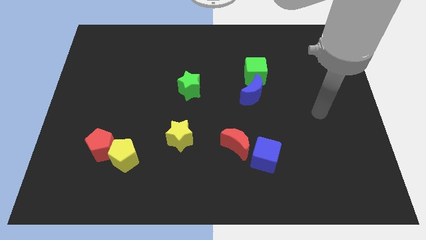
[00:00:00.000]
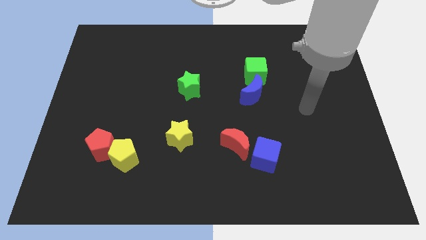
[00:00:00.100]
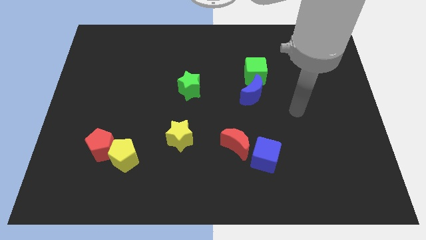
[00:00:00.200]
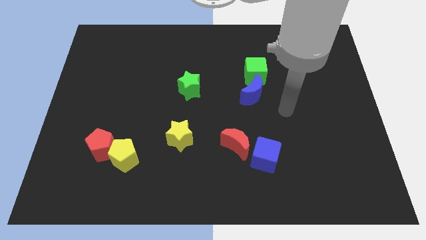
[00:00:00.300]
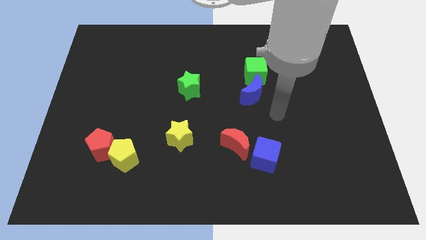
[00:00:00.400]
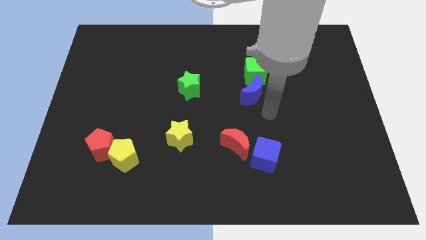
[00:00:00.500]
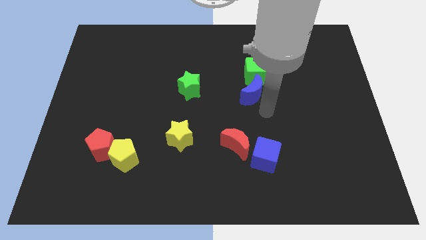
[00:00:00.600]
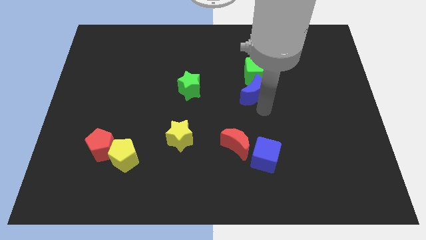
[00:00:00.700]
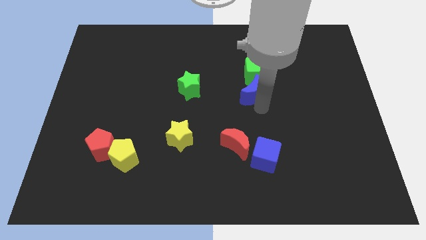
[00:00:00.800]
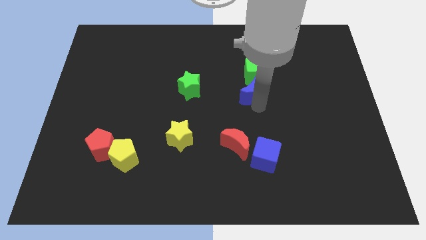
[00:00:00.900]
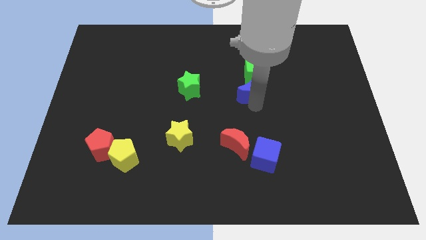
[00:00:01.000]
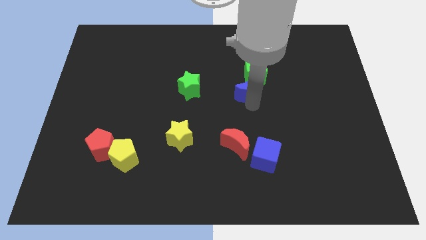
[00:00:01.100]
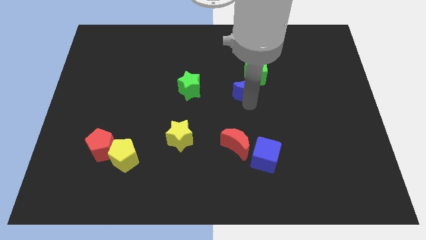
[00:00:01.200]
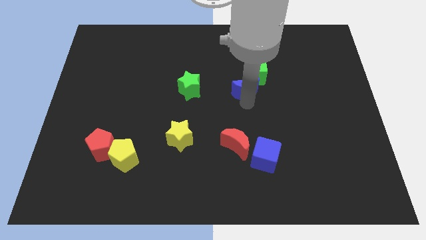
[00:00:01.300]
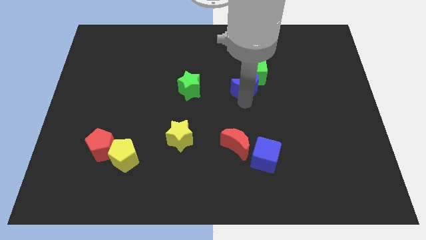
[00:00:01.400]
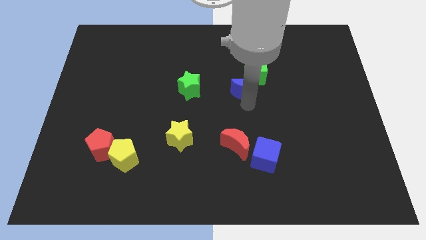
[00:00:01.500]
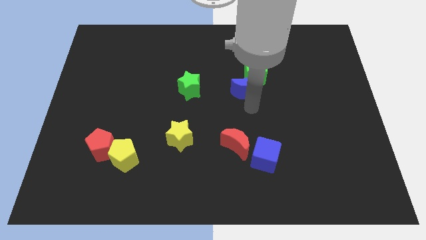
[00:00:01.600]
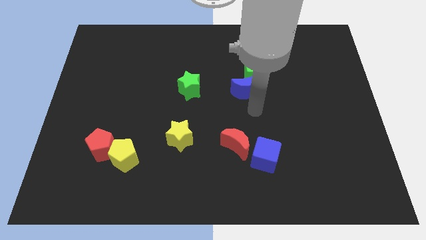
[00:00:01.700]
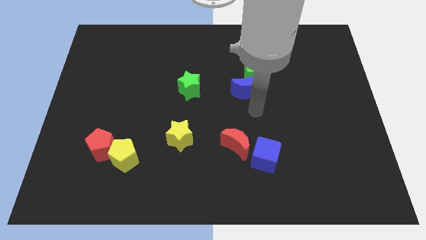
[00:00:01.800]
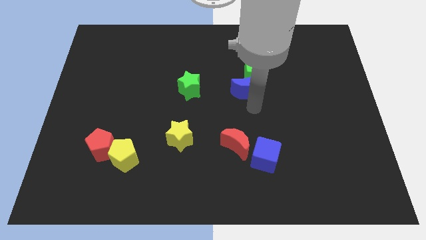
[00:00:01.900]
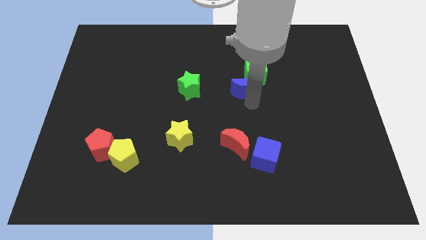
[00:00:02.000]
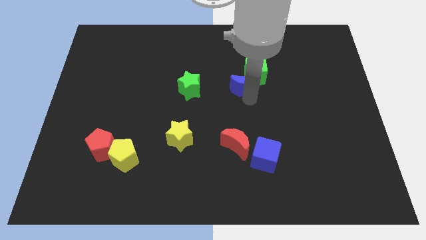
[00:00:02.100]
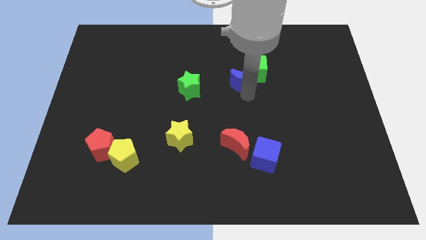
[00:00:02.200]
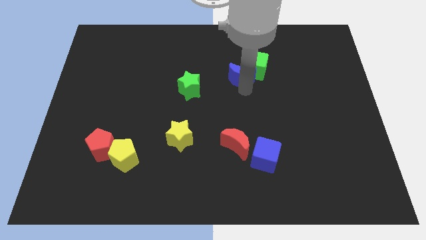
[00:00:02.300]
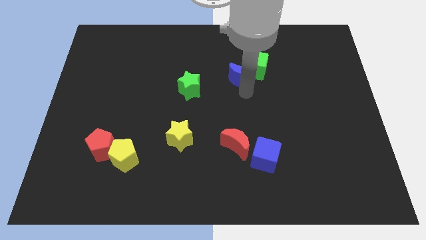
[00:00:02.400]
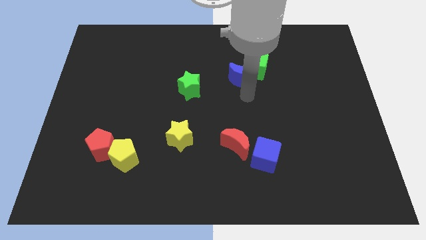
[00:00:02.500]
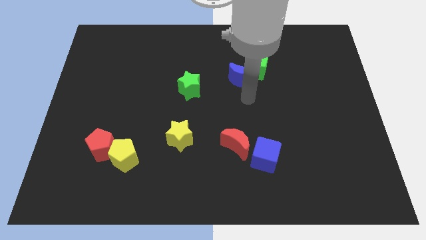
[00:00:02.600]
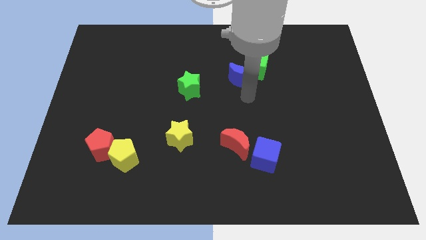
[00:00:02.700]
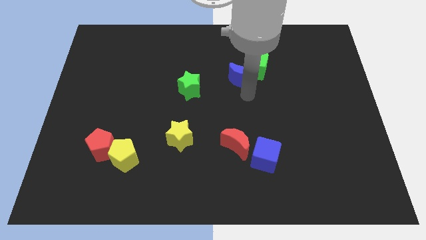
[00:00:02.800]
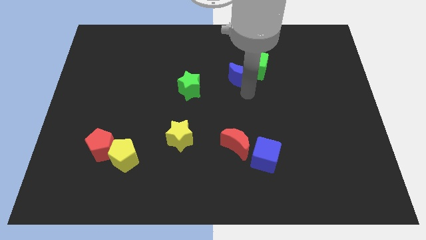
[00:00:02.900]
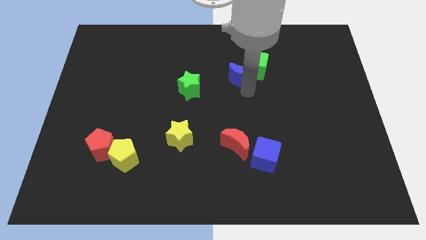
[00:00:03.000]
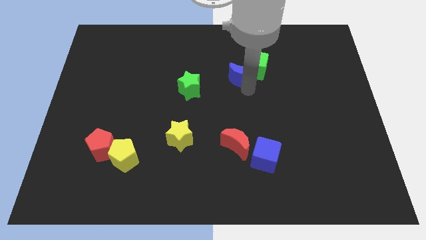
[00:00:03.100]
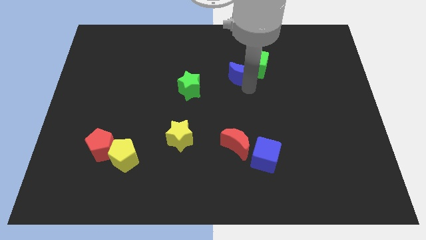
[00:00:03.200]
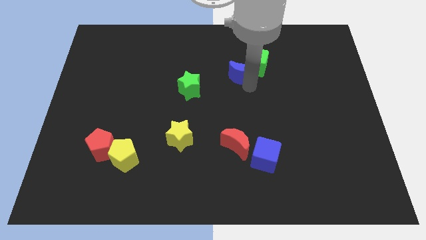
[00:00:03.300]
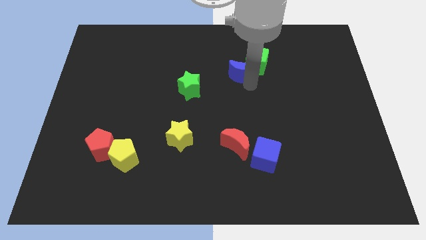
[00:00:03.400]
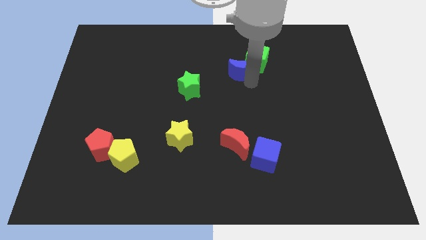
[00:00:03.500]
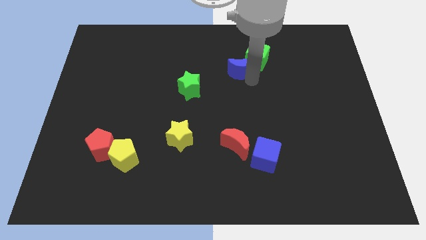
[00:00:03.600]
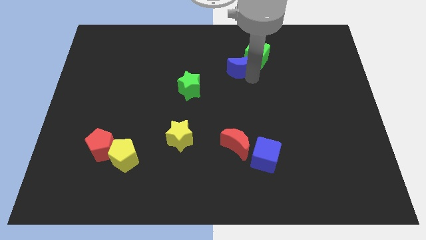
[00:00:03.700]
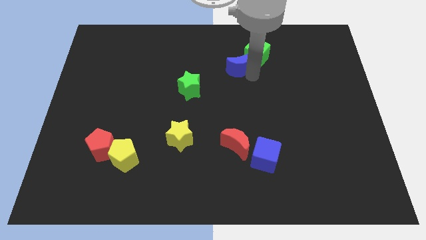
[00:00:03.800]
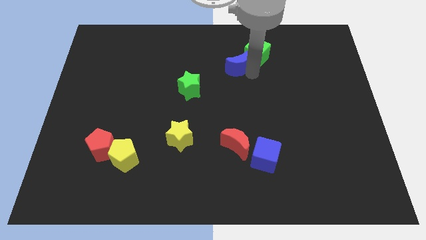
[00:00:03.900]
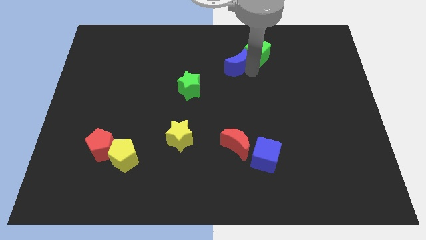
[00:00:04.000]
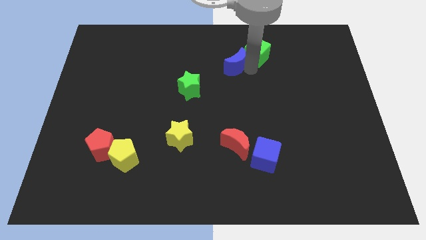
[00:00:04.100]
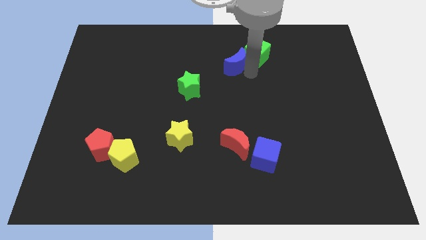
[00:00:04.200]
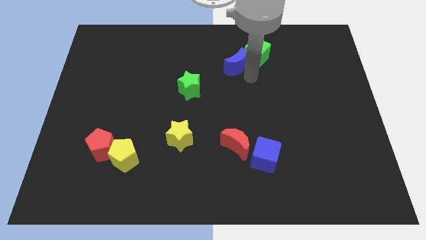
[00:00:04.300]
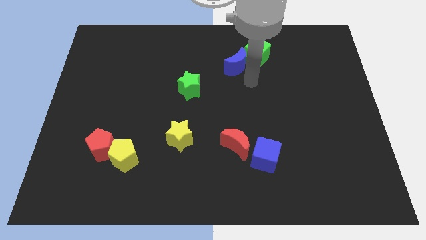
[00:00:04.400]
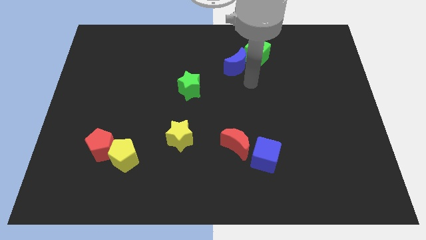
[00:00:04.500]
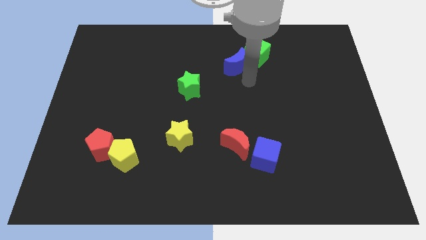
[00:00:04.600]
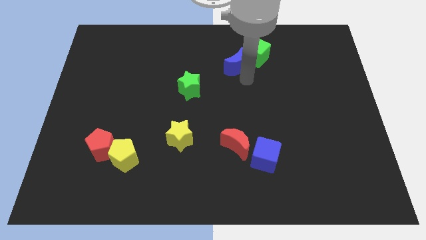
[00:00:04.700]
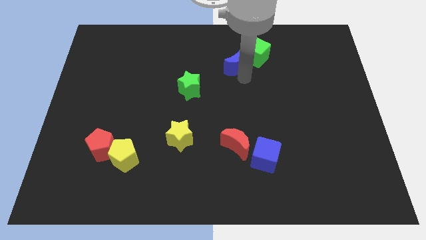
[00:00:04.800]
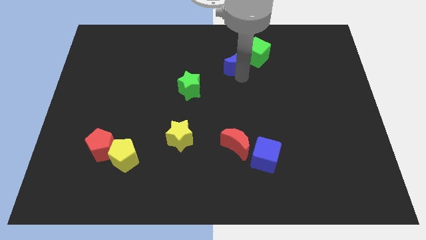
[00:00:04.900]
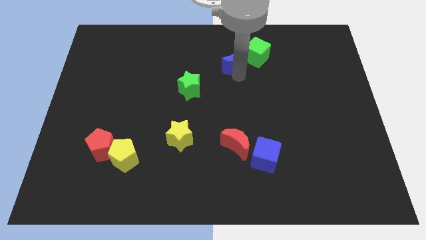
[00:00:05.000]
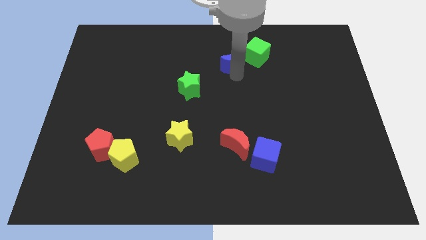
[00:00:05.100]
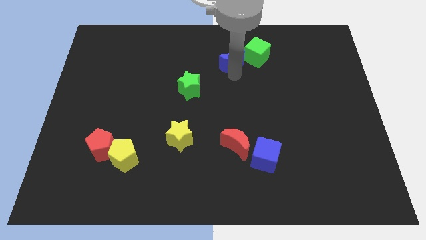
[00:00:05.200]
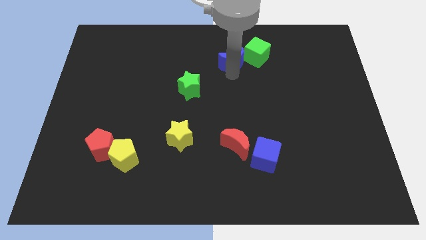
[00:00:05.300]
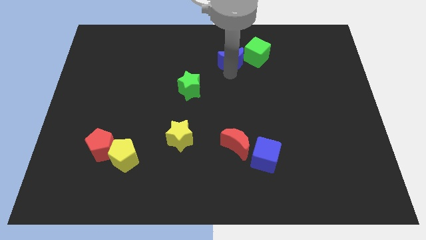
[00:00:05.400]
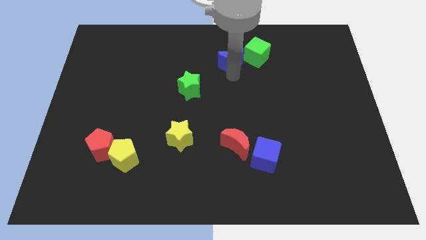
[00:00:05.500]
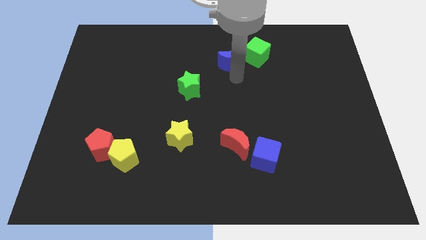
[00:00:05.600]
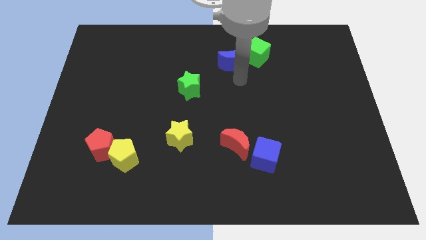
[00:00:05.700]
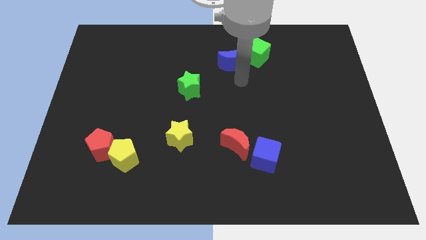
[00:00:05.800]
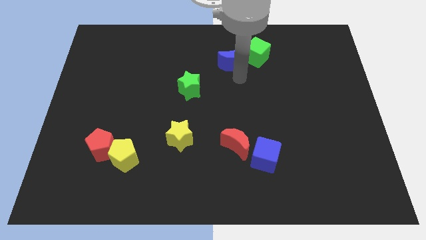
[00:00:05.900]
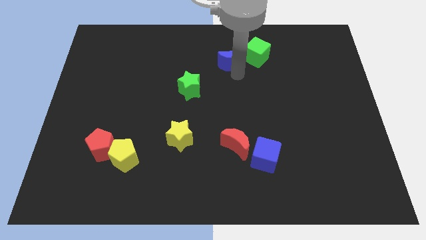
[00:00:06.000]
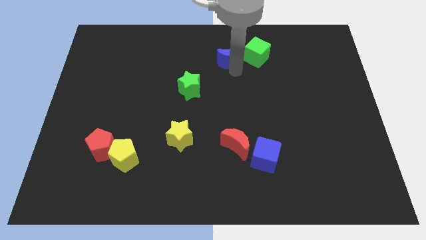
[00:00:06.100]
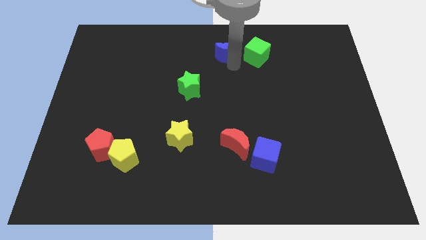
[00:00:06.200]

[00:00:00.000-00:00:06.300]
push the blue moon to the top
